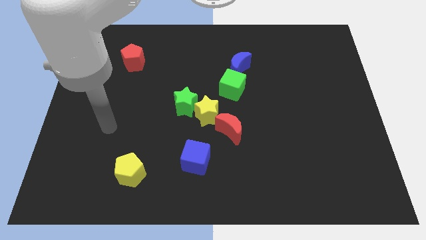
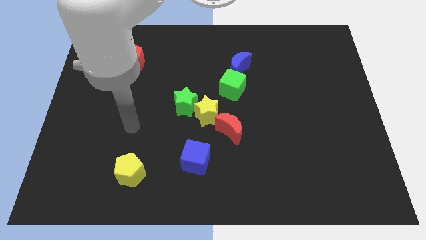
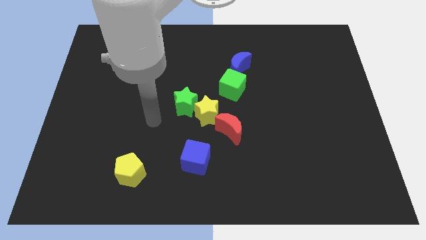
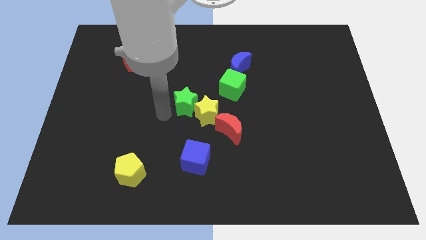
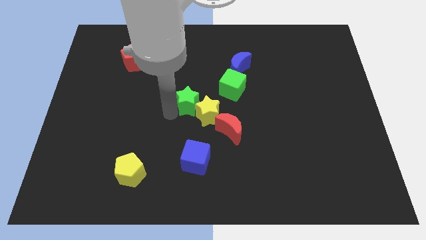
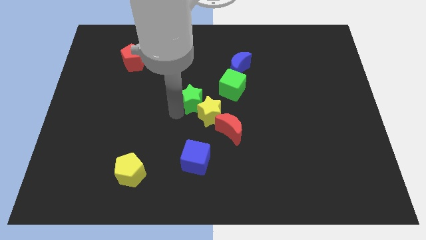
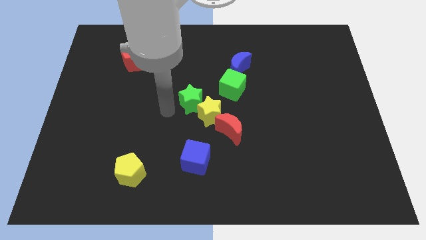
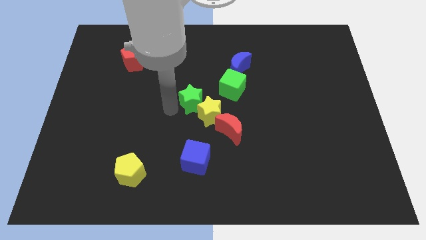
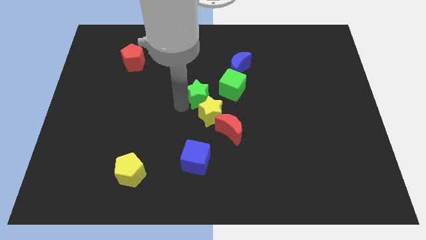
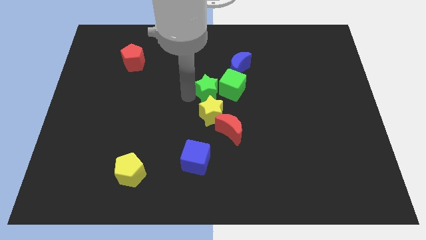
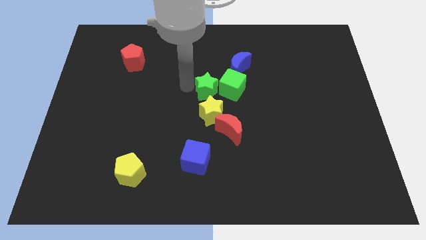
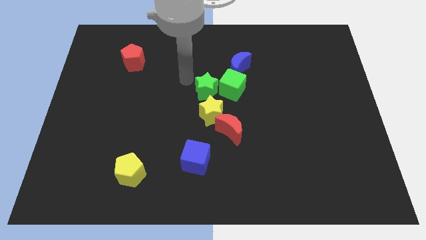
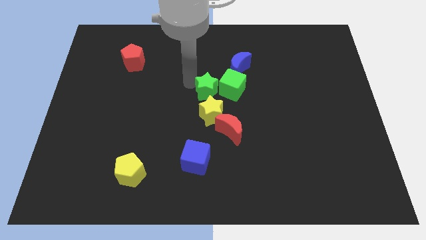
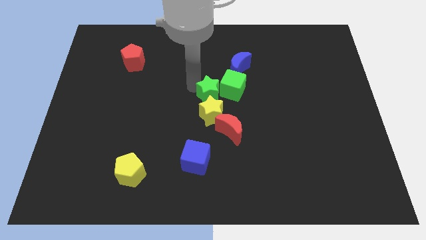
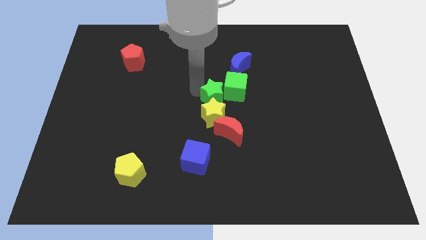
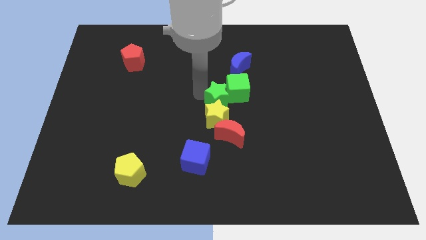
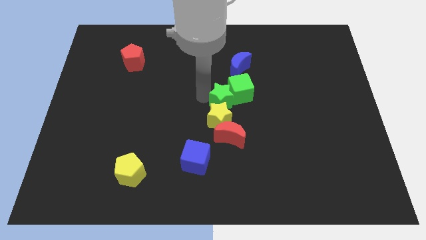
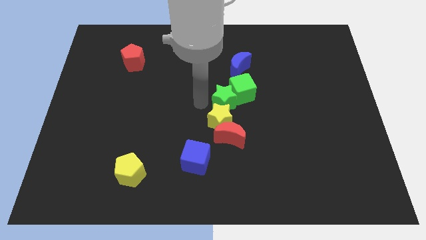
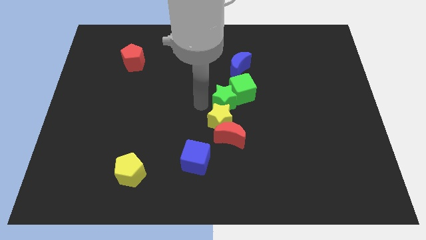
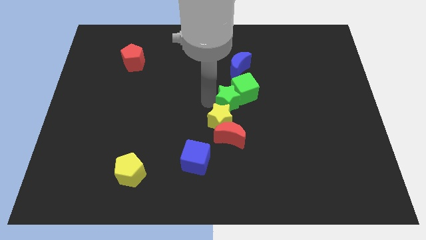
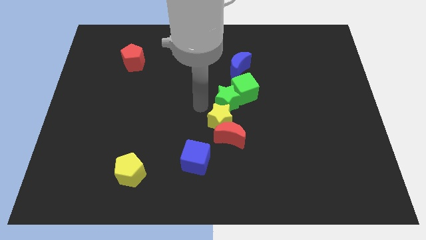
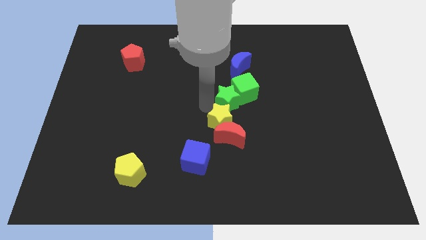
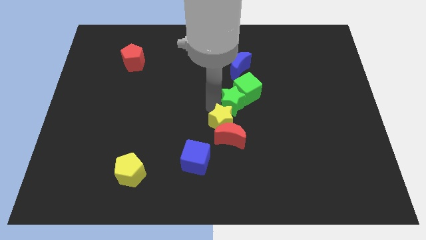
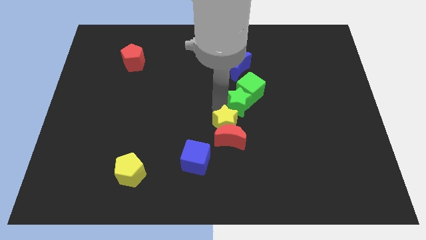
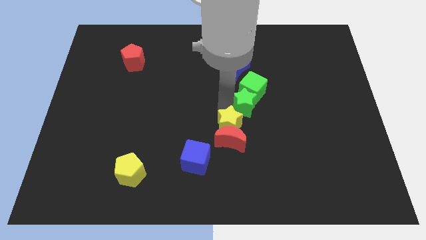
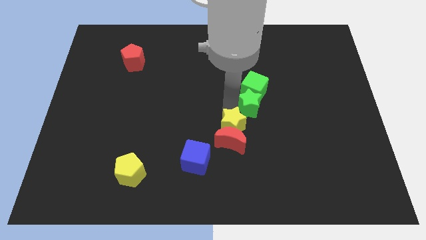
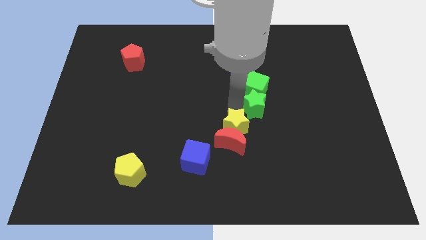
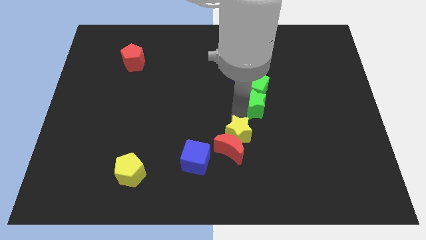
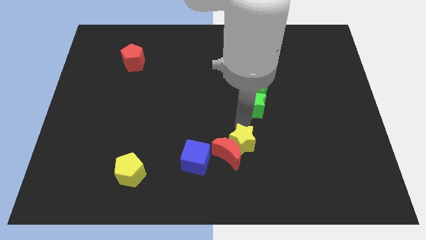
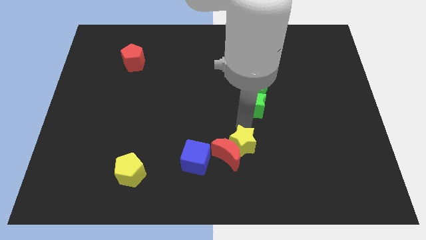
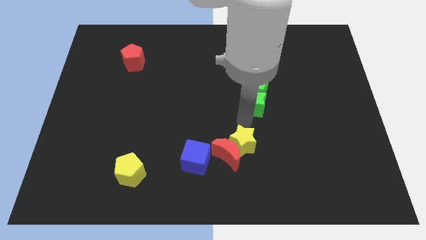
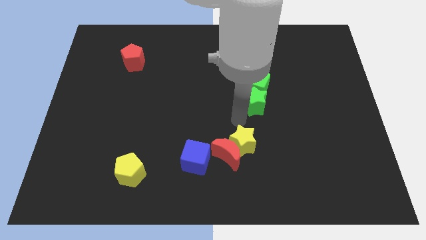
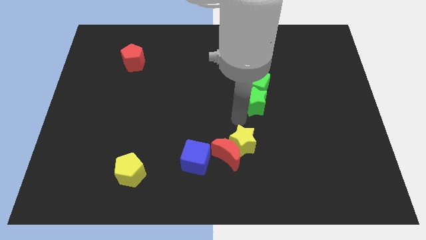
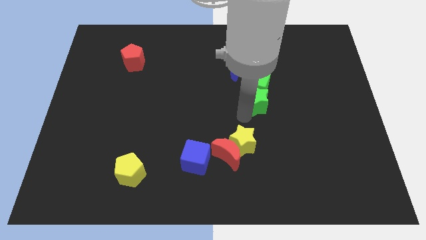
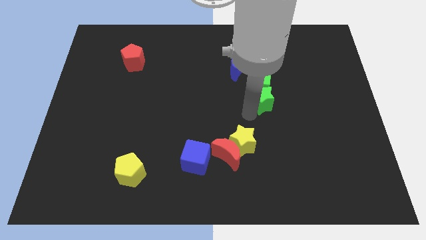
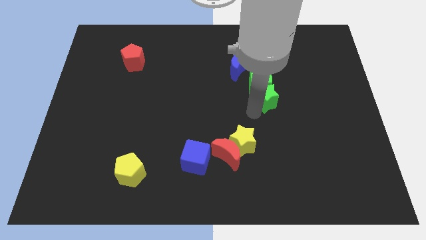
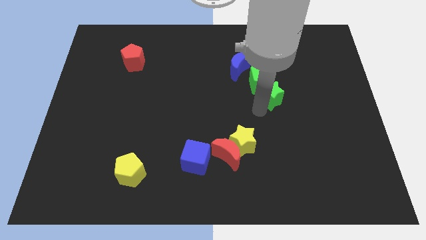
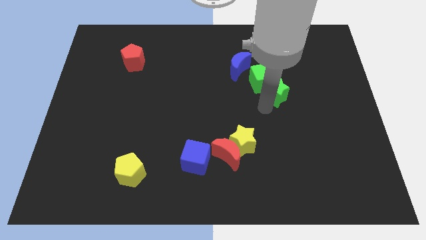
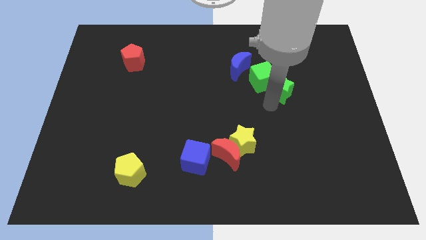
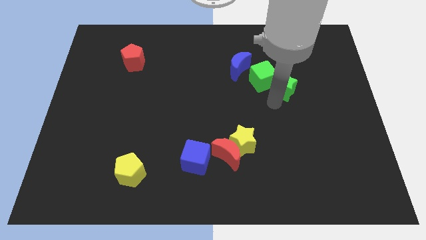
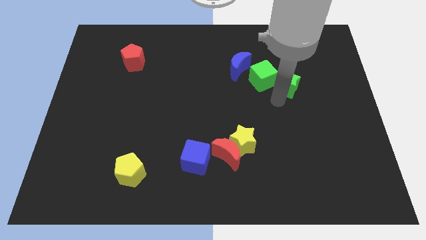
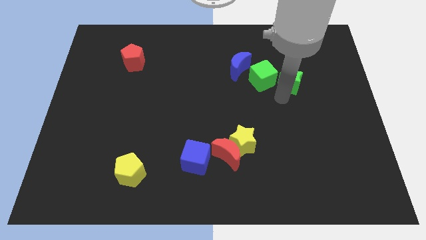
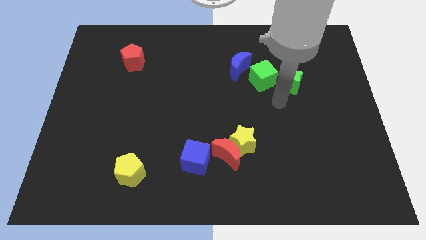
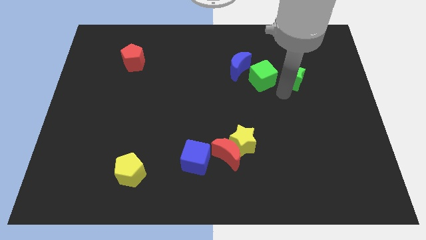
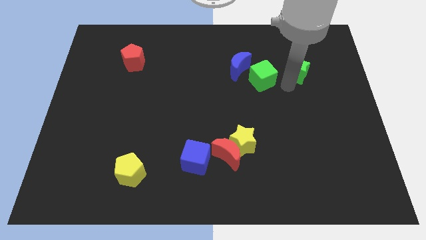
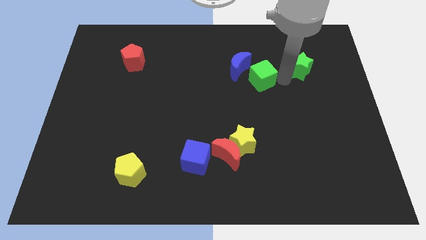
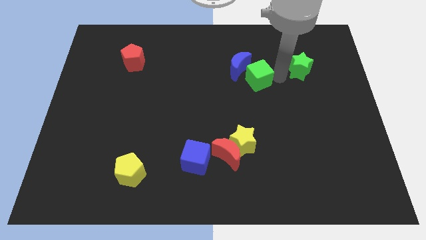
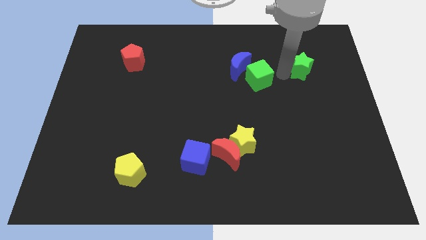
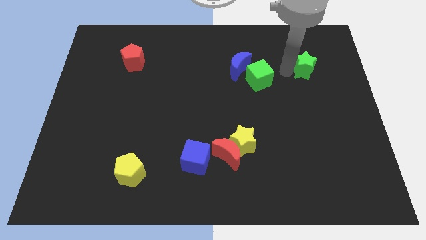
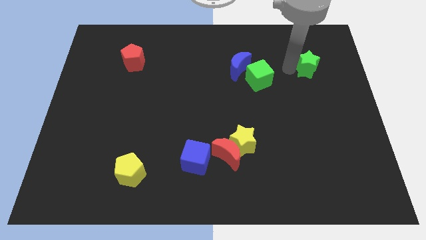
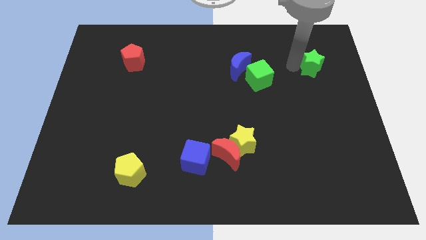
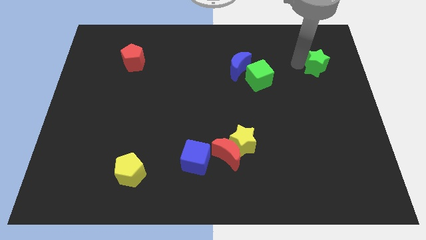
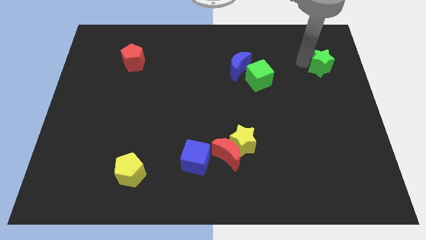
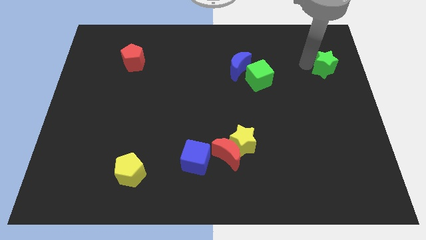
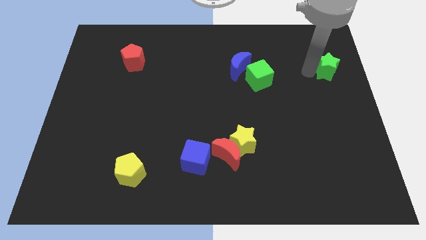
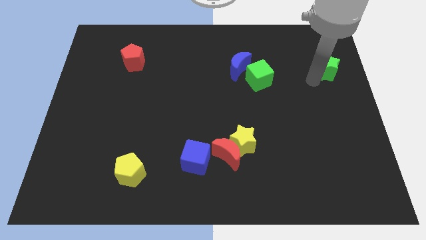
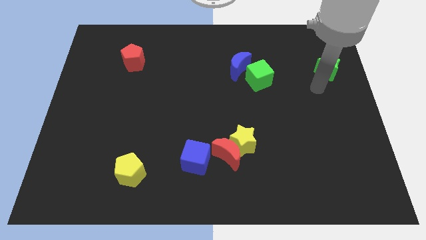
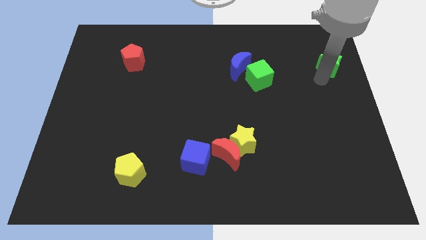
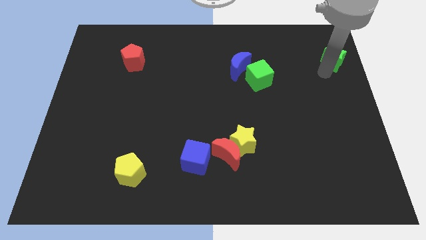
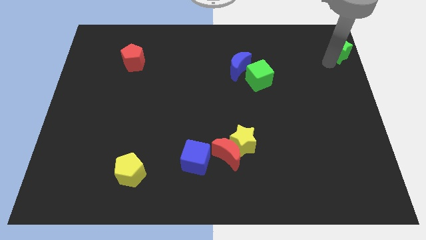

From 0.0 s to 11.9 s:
put the green star to the upper right corner

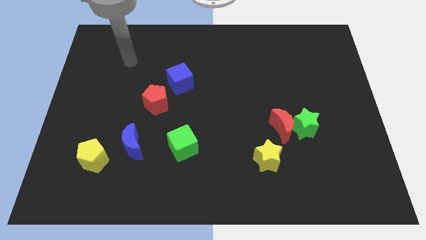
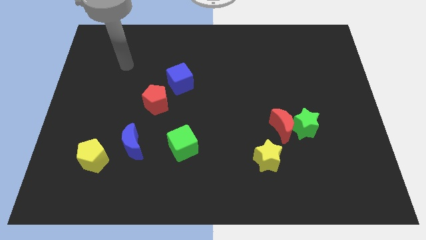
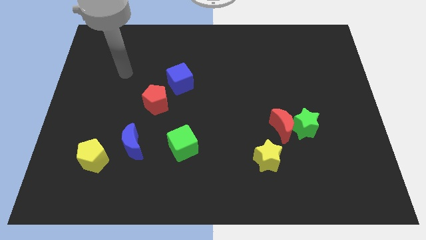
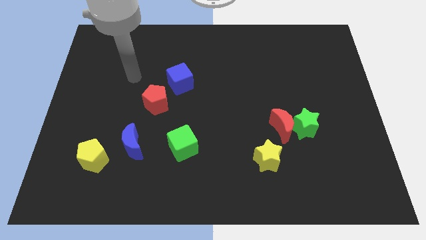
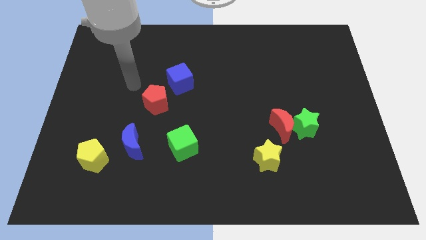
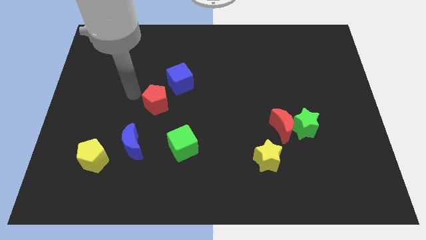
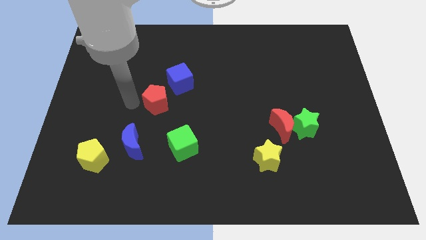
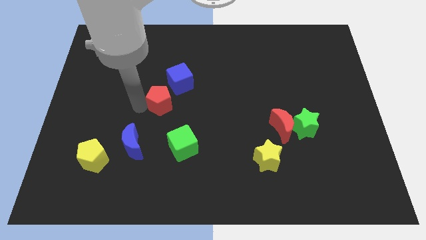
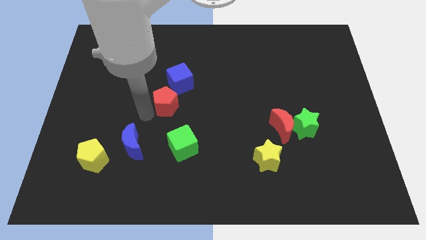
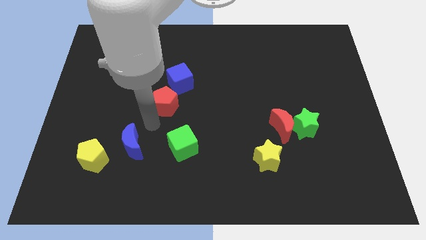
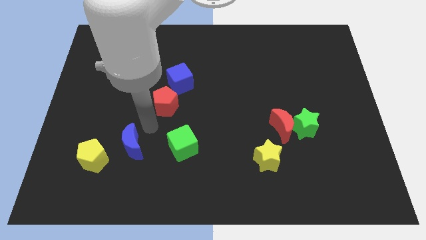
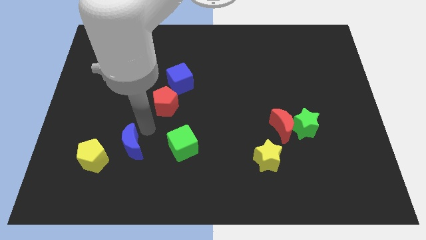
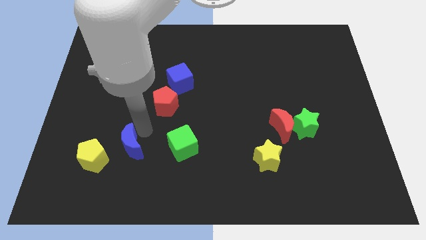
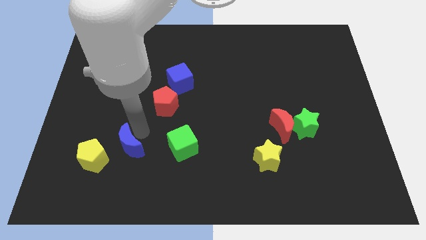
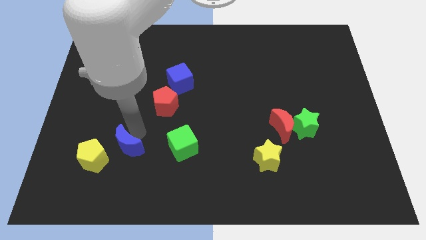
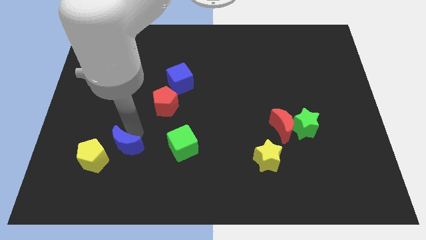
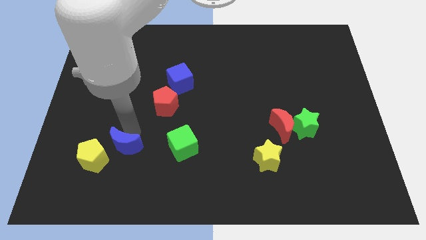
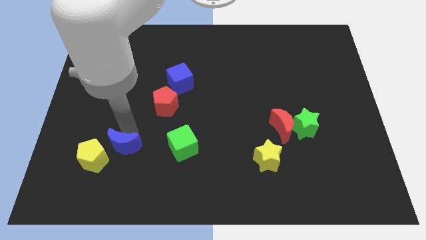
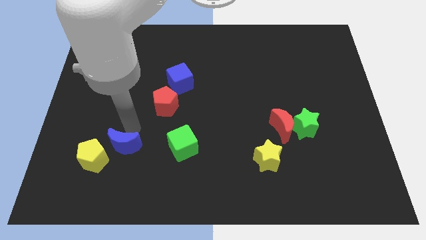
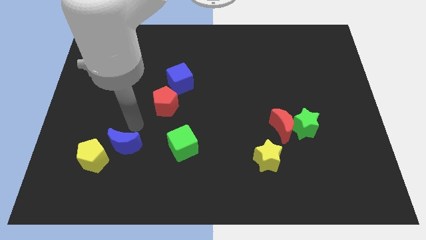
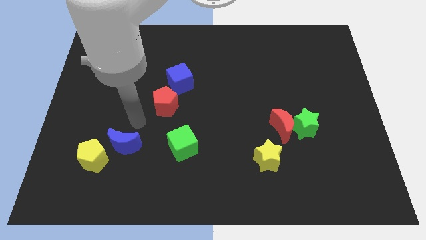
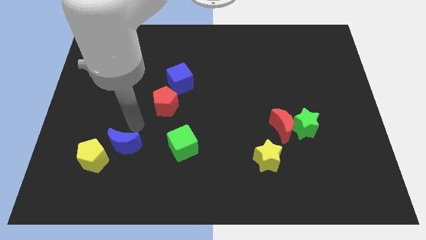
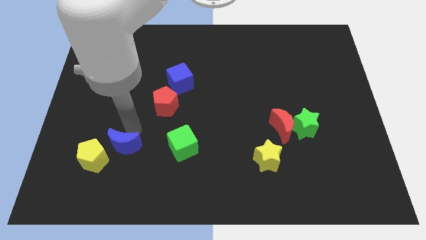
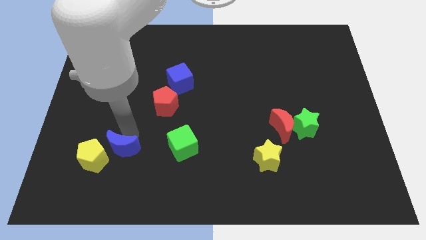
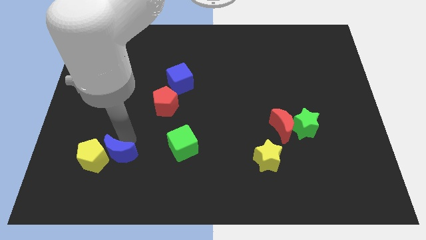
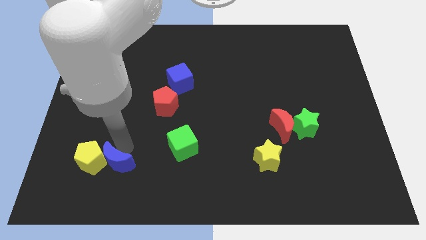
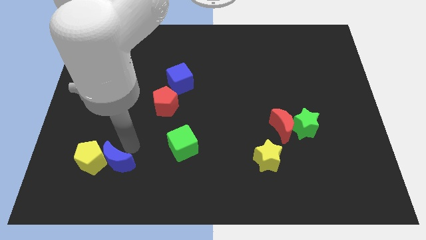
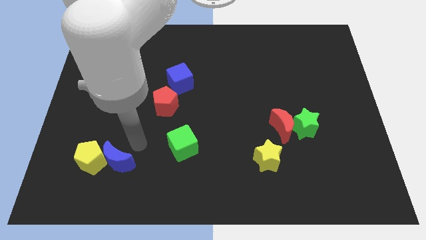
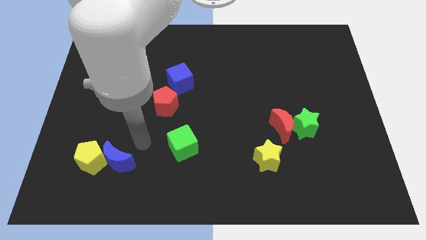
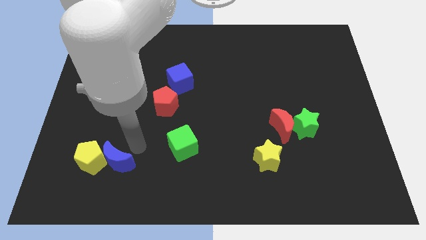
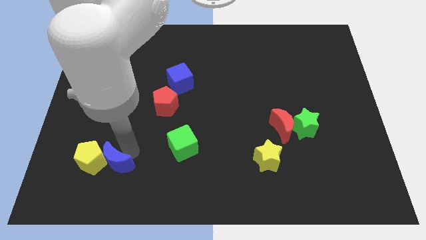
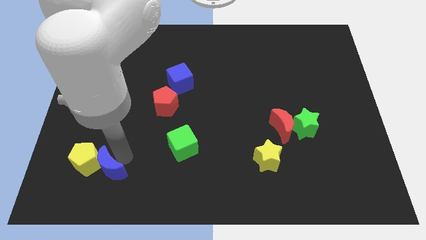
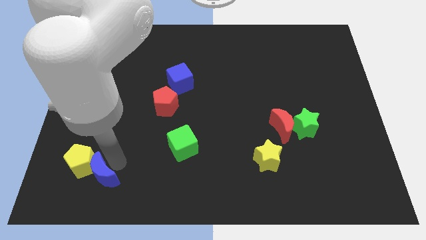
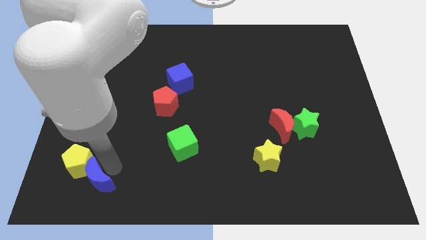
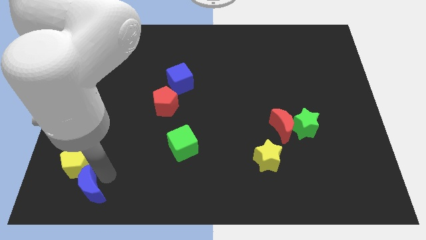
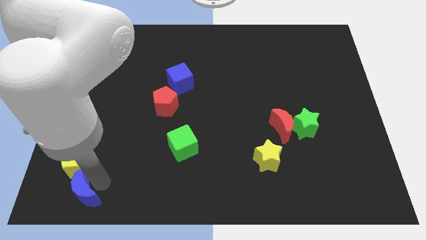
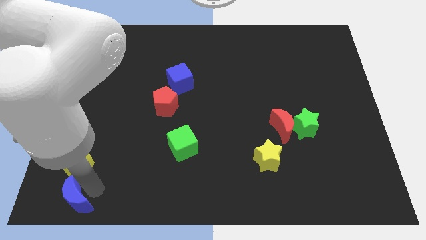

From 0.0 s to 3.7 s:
push the blue moon to the bottom left of the board
